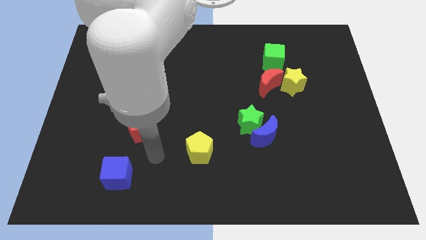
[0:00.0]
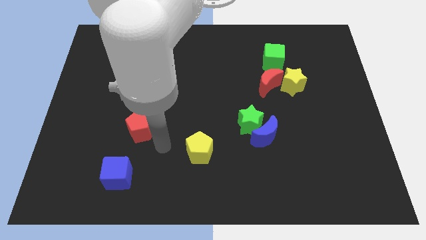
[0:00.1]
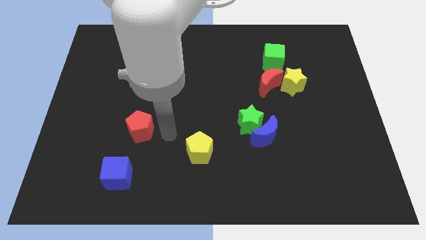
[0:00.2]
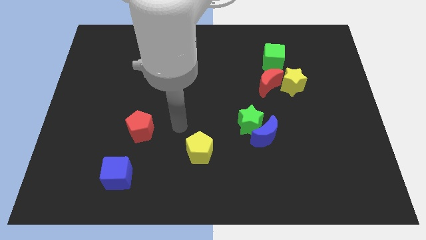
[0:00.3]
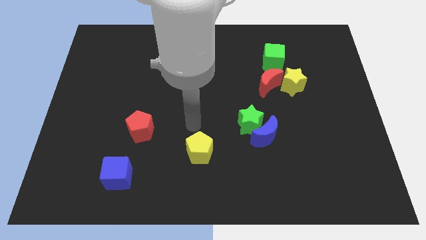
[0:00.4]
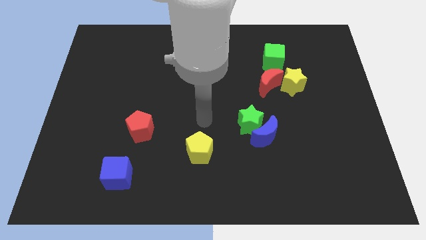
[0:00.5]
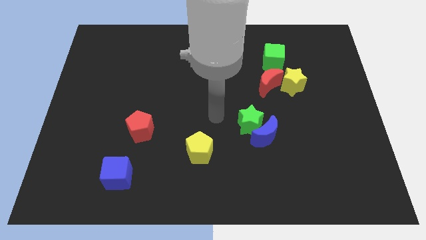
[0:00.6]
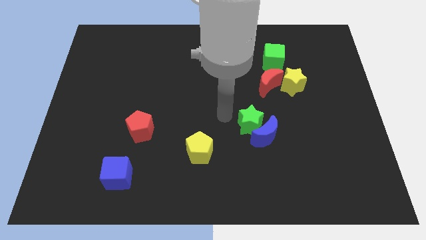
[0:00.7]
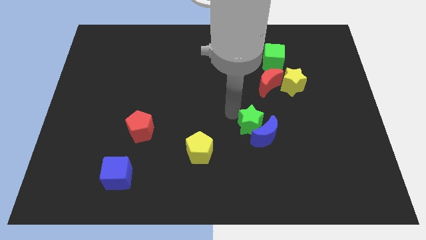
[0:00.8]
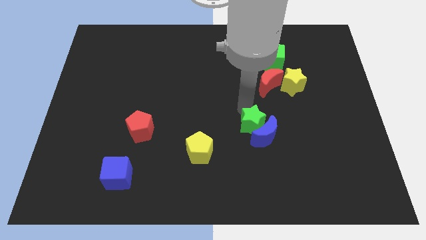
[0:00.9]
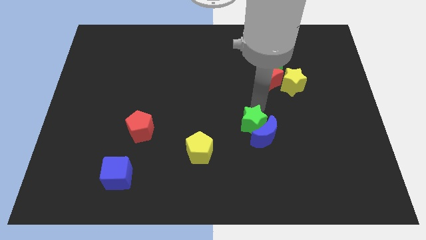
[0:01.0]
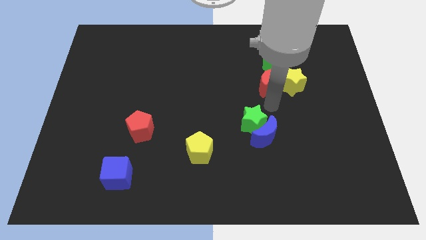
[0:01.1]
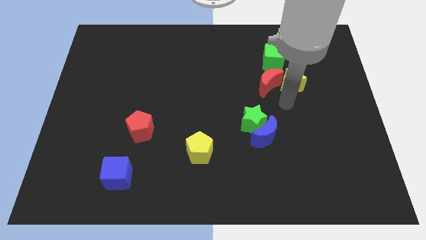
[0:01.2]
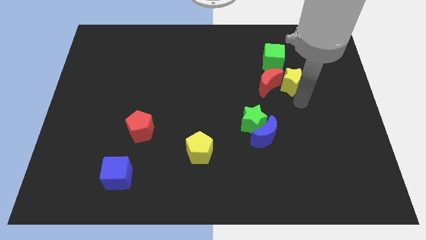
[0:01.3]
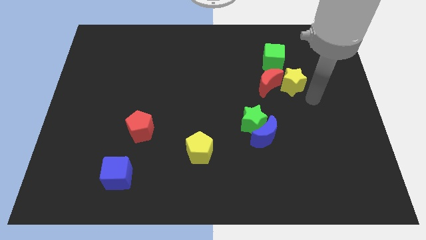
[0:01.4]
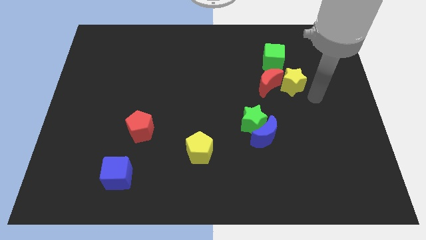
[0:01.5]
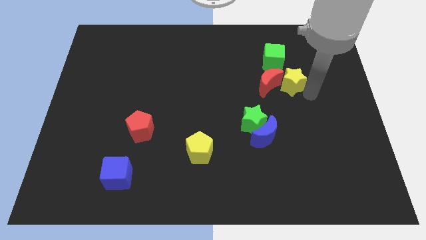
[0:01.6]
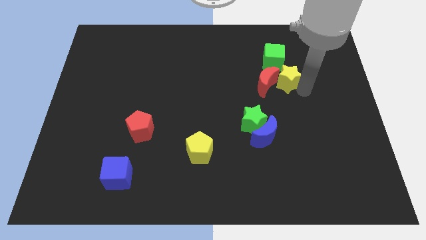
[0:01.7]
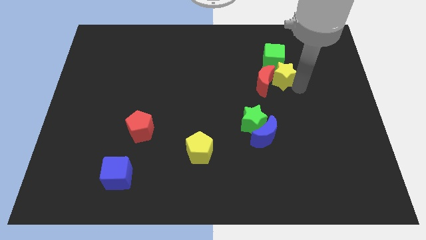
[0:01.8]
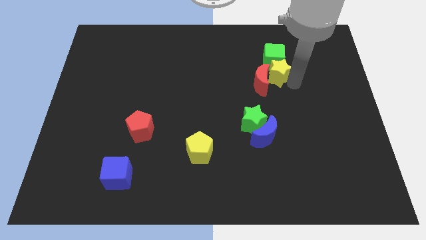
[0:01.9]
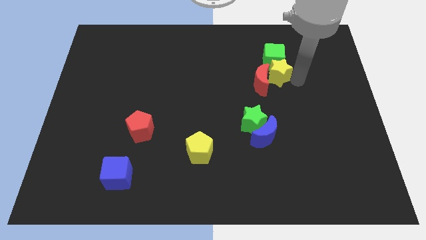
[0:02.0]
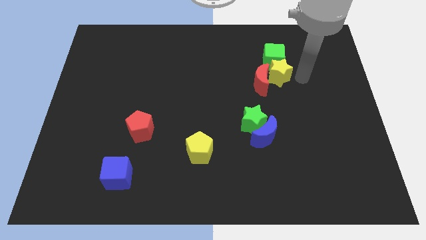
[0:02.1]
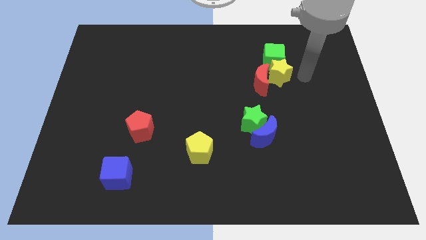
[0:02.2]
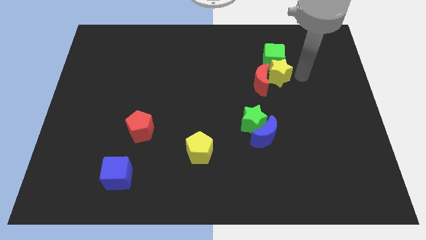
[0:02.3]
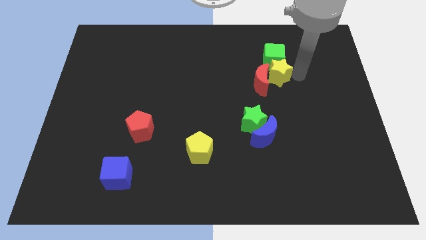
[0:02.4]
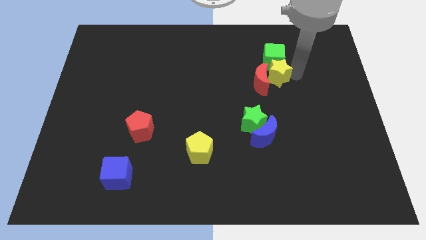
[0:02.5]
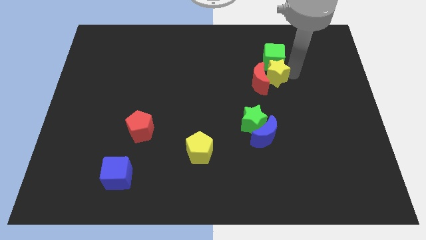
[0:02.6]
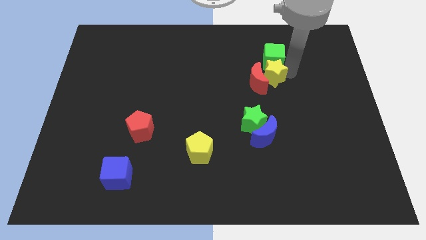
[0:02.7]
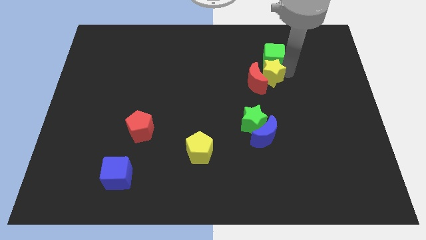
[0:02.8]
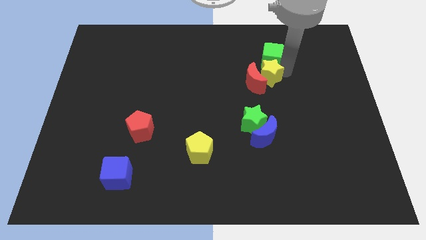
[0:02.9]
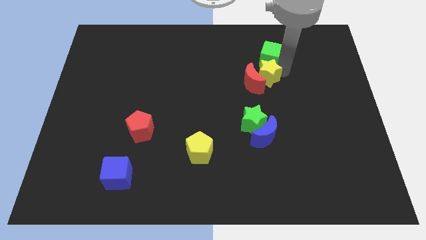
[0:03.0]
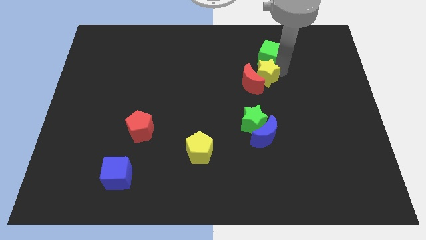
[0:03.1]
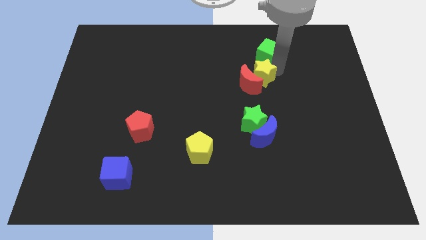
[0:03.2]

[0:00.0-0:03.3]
slide the yellow star to the left slightly

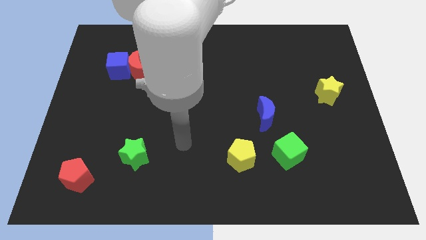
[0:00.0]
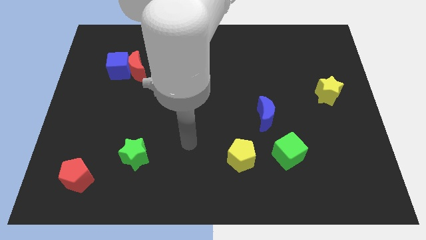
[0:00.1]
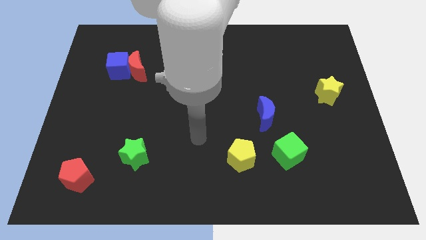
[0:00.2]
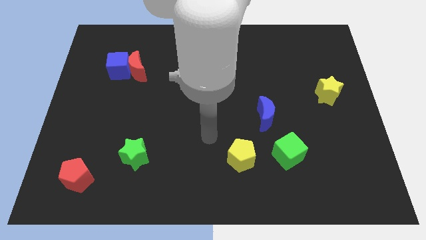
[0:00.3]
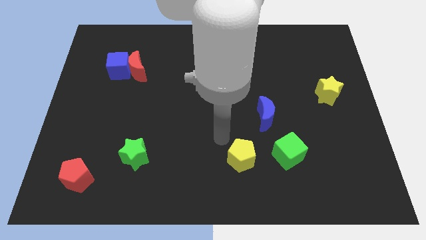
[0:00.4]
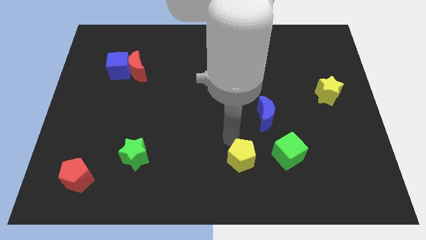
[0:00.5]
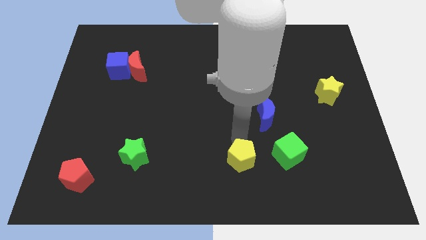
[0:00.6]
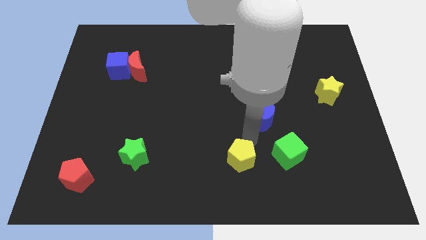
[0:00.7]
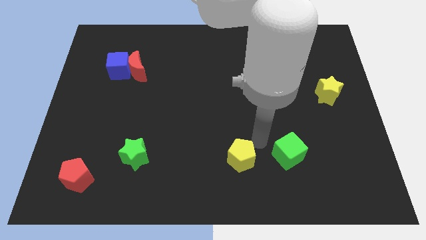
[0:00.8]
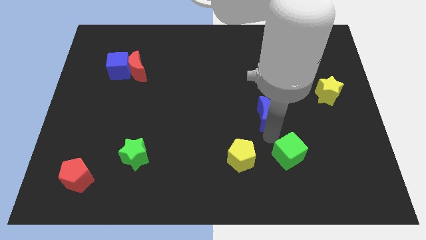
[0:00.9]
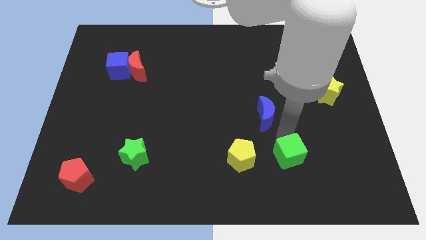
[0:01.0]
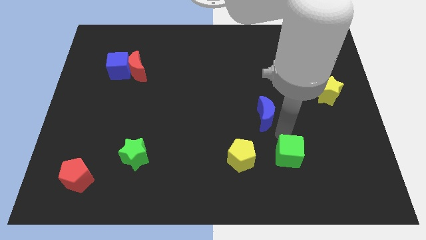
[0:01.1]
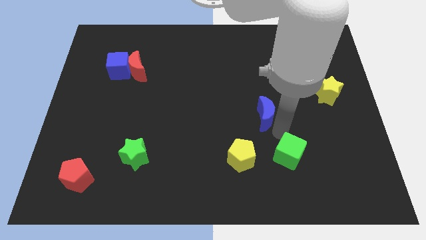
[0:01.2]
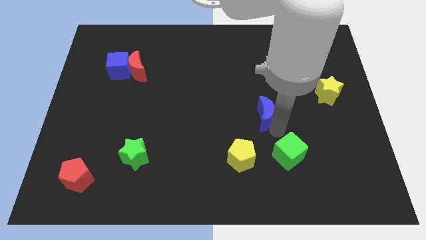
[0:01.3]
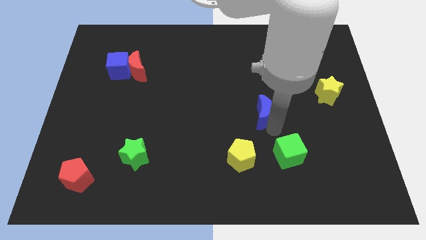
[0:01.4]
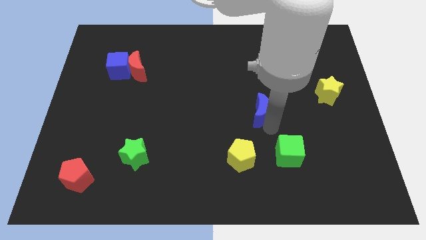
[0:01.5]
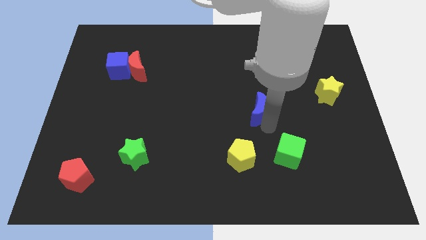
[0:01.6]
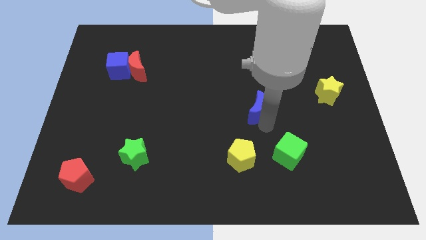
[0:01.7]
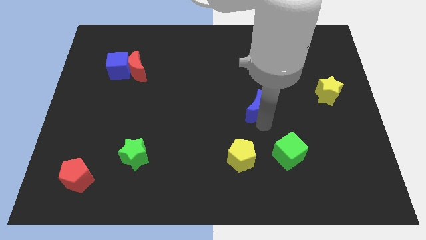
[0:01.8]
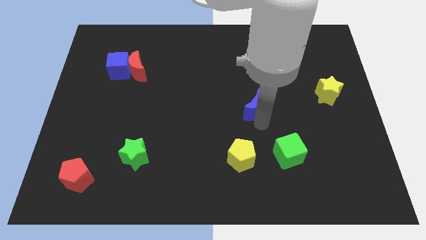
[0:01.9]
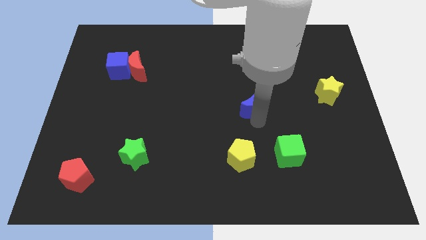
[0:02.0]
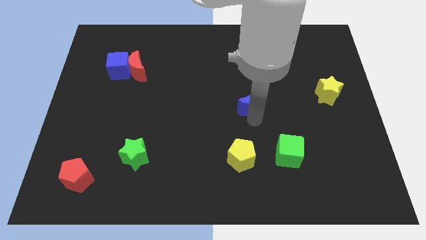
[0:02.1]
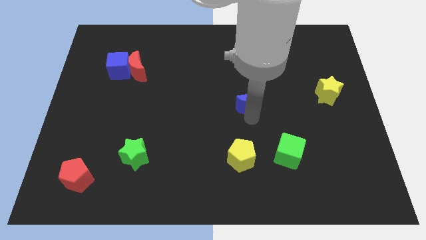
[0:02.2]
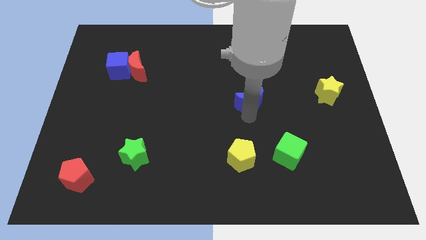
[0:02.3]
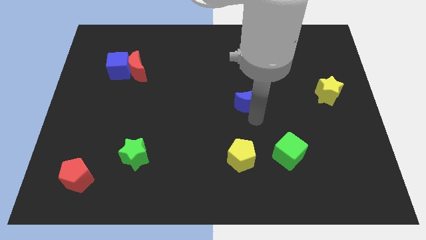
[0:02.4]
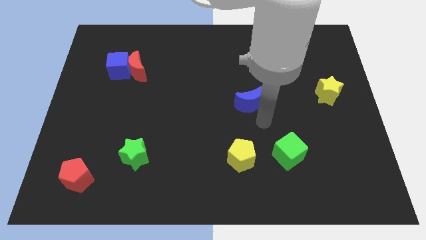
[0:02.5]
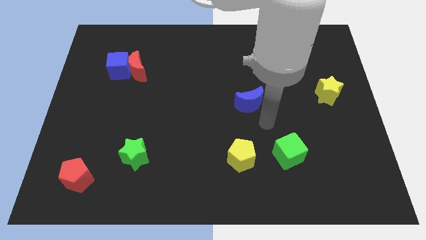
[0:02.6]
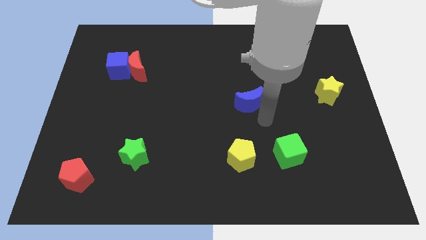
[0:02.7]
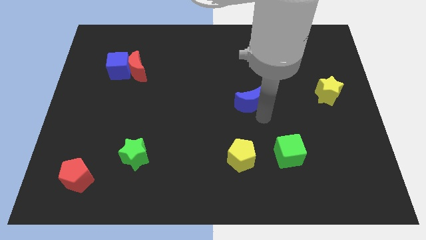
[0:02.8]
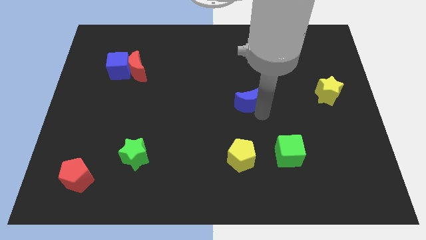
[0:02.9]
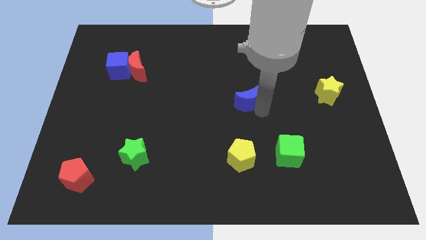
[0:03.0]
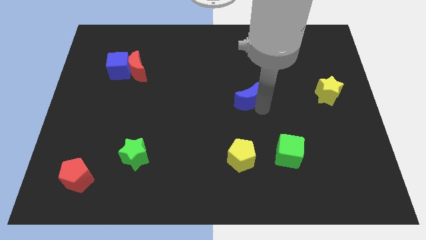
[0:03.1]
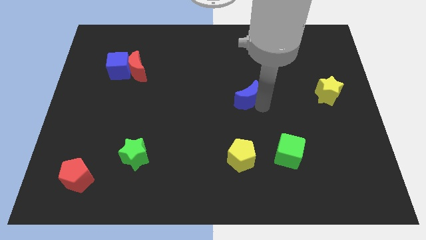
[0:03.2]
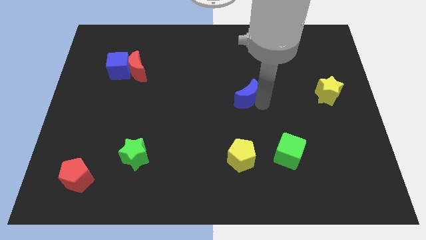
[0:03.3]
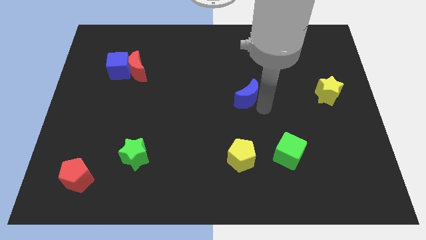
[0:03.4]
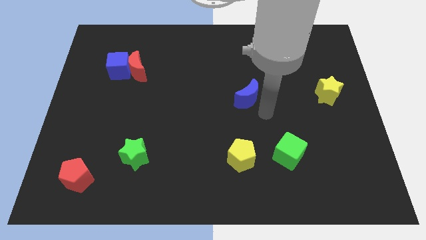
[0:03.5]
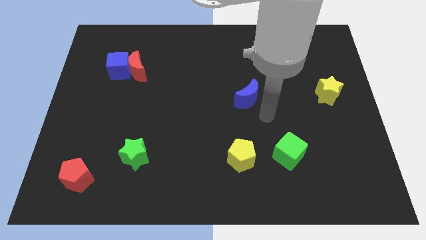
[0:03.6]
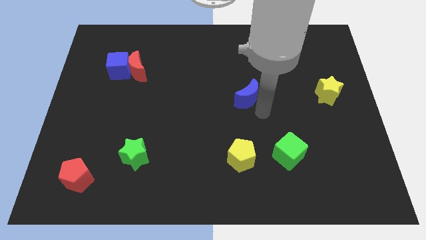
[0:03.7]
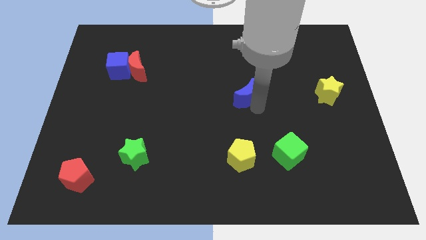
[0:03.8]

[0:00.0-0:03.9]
slide the blue moon a bit diagonally up and left

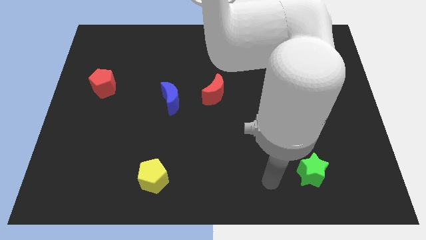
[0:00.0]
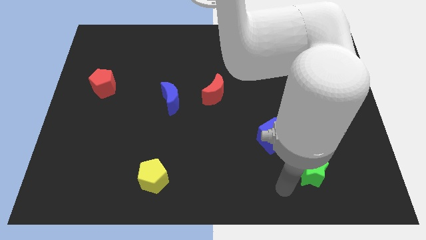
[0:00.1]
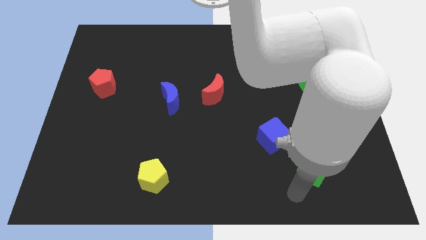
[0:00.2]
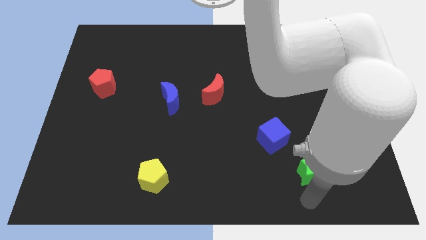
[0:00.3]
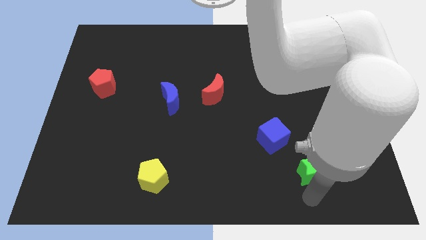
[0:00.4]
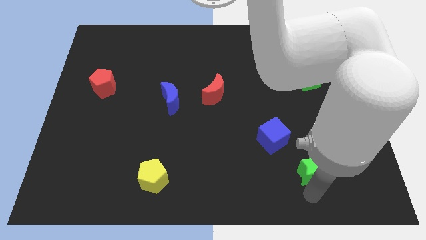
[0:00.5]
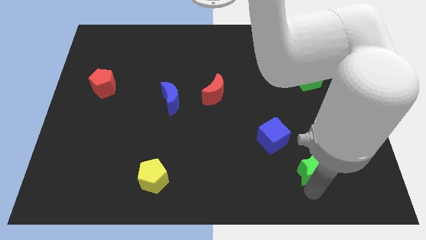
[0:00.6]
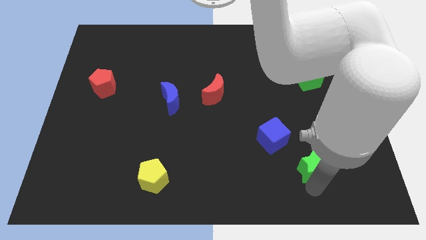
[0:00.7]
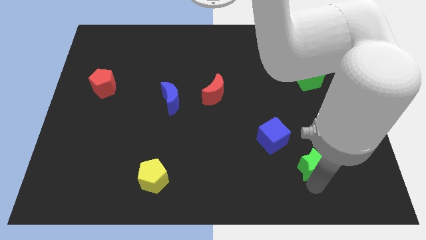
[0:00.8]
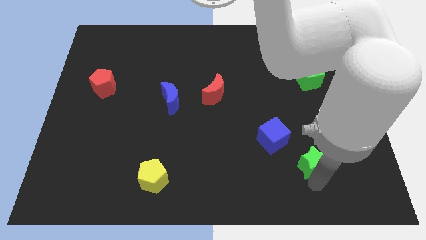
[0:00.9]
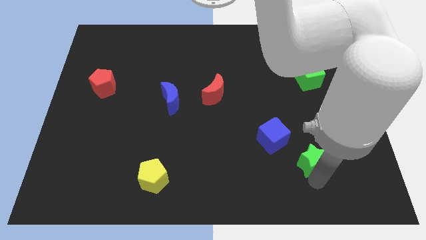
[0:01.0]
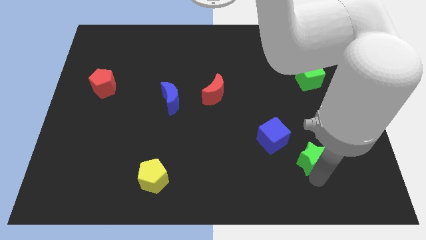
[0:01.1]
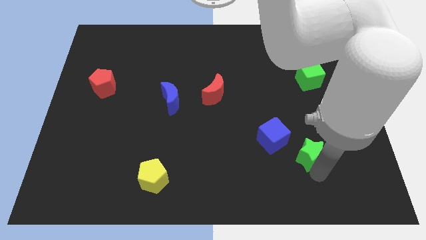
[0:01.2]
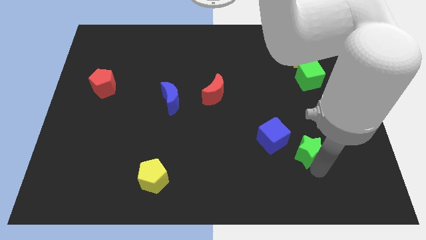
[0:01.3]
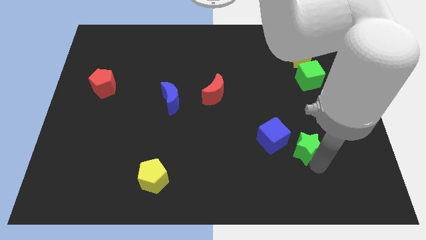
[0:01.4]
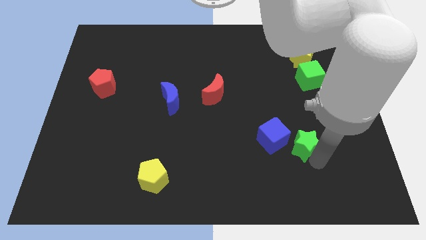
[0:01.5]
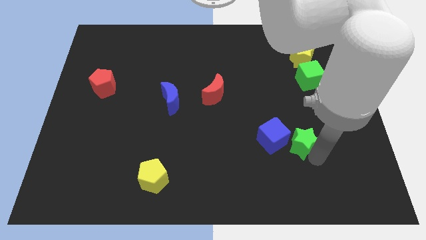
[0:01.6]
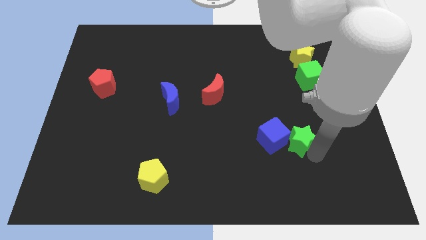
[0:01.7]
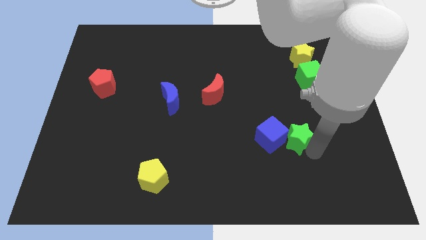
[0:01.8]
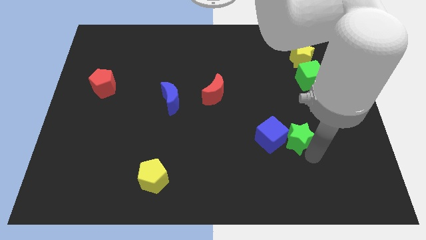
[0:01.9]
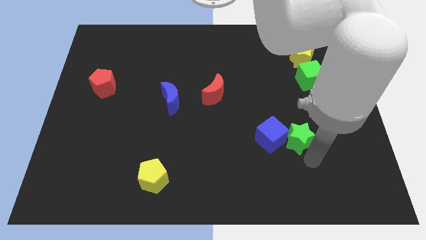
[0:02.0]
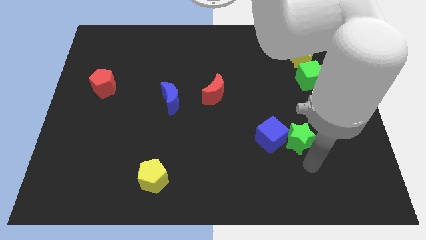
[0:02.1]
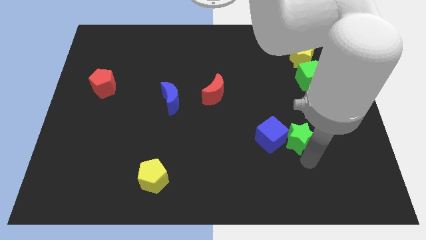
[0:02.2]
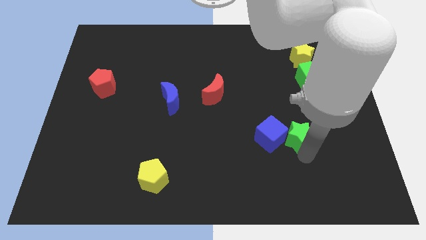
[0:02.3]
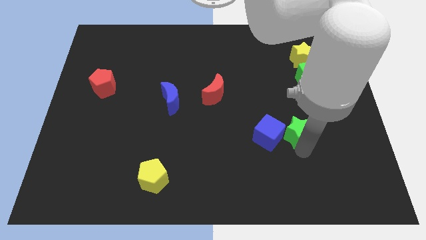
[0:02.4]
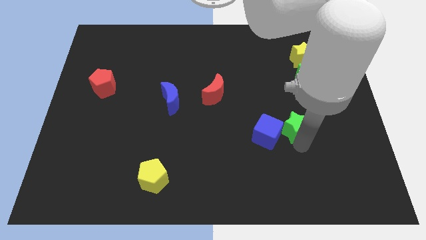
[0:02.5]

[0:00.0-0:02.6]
move the green star upwards and to the left diagonally a bit
